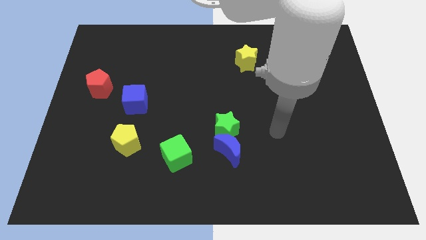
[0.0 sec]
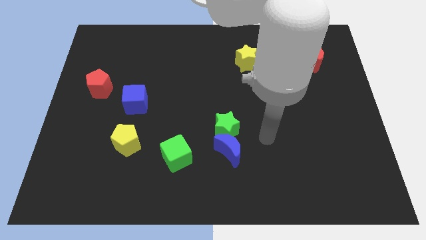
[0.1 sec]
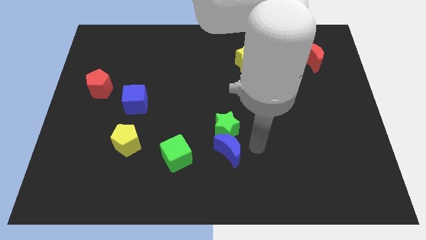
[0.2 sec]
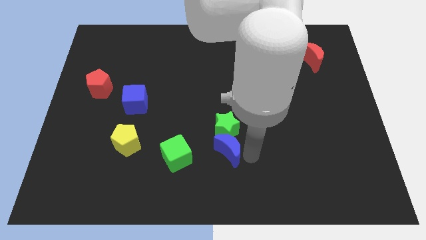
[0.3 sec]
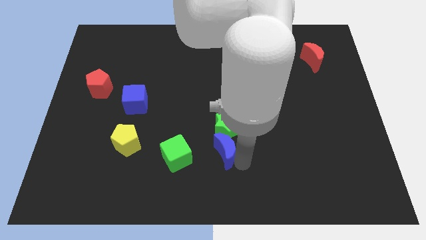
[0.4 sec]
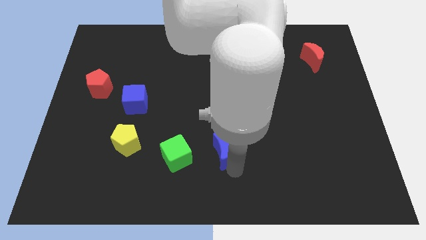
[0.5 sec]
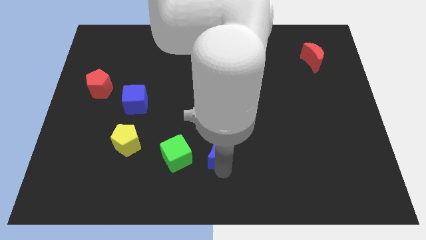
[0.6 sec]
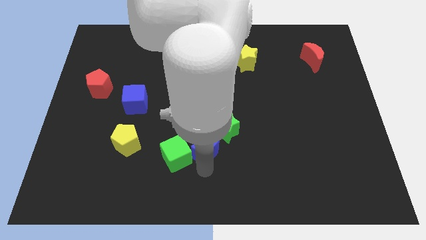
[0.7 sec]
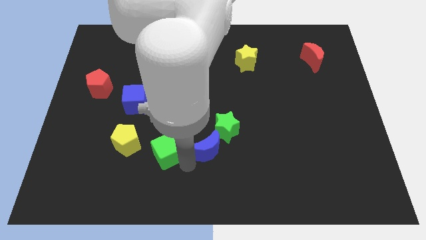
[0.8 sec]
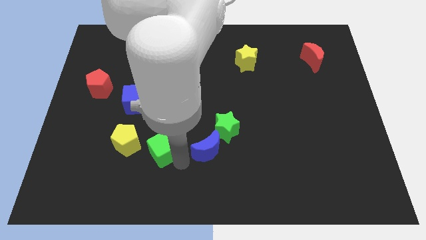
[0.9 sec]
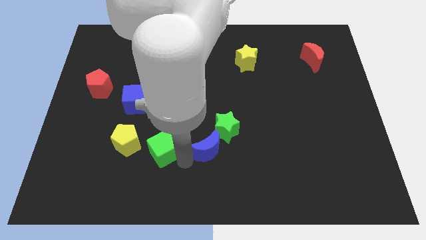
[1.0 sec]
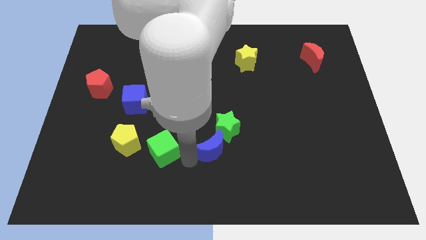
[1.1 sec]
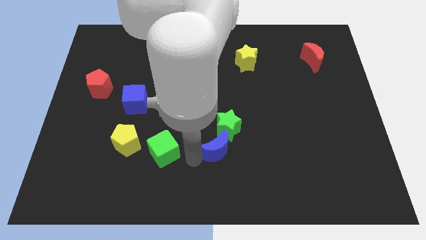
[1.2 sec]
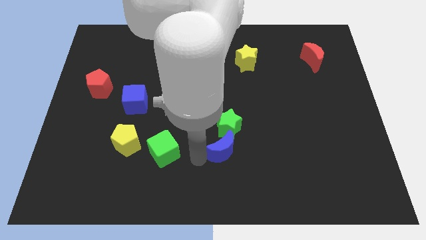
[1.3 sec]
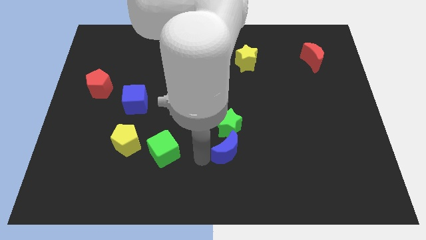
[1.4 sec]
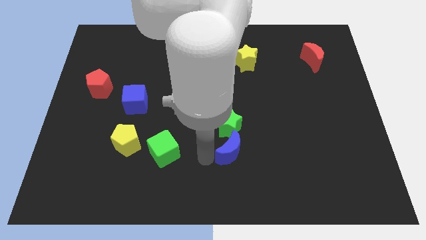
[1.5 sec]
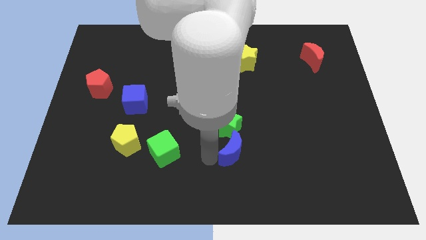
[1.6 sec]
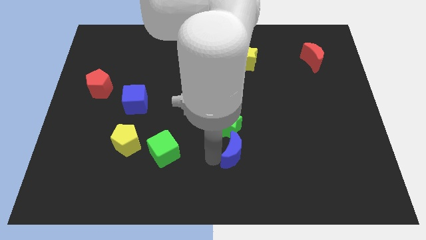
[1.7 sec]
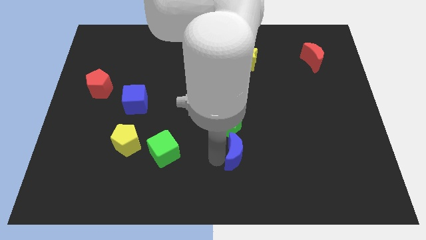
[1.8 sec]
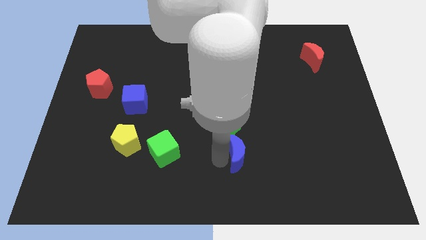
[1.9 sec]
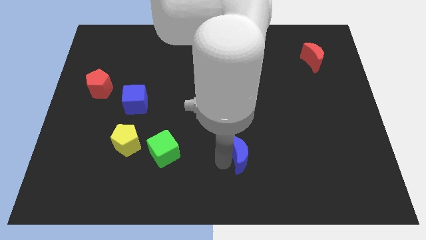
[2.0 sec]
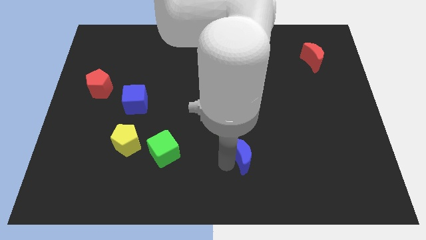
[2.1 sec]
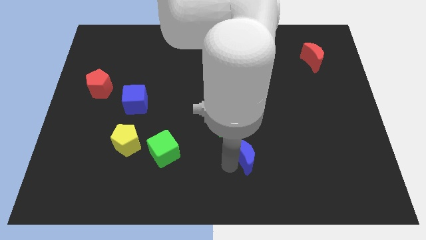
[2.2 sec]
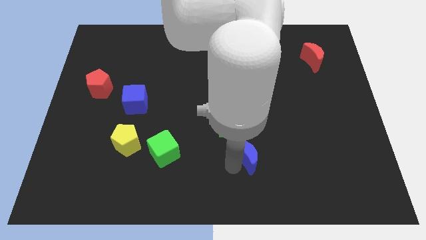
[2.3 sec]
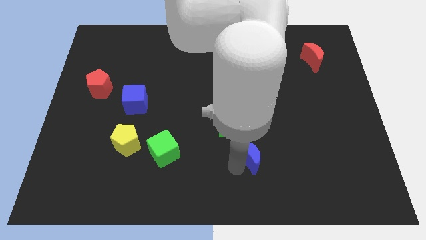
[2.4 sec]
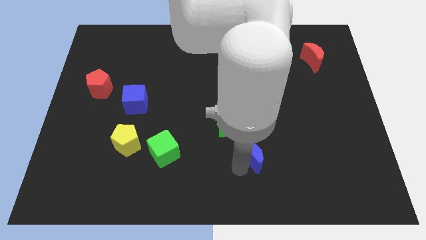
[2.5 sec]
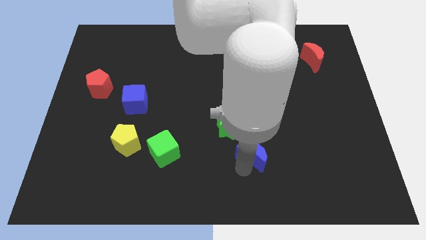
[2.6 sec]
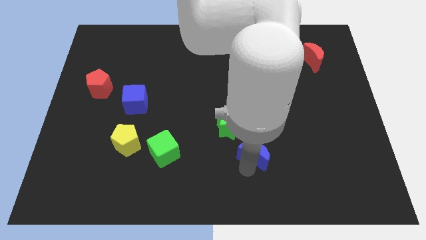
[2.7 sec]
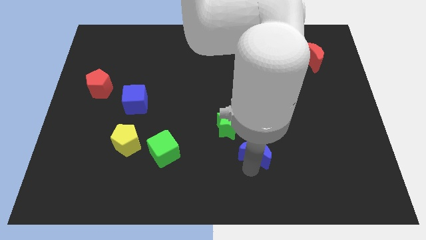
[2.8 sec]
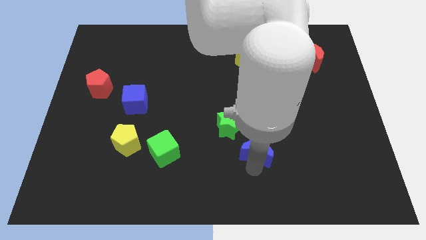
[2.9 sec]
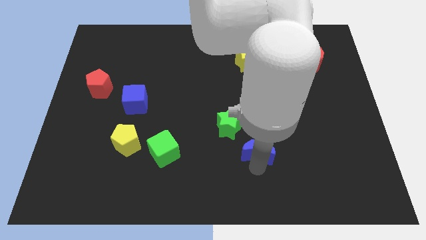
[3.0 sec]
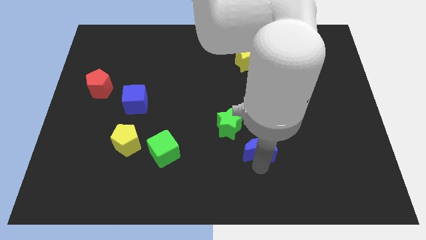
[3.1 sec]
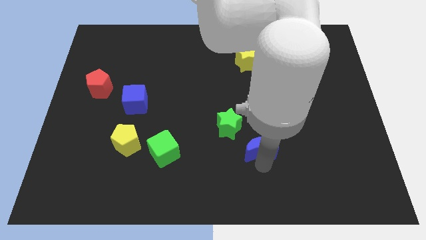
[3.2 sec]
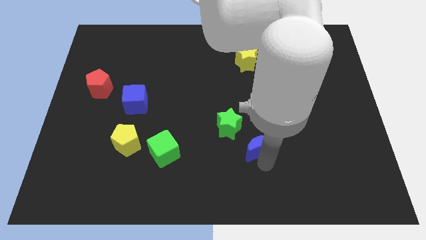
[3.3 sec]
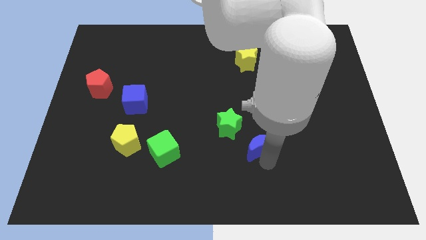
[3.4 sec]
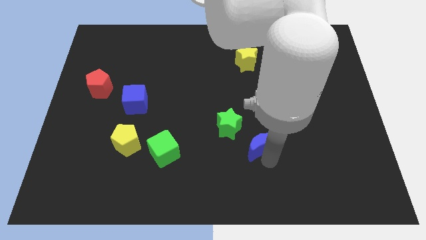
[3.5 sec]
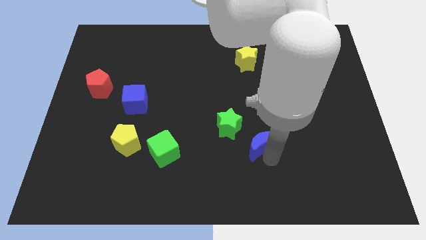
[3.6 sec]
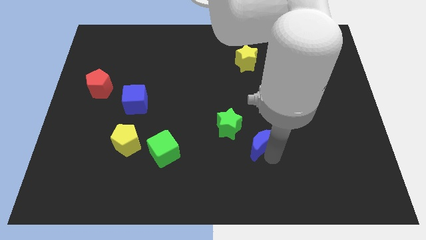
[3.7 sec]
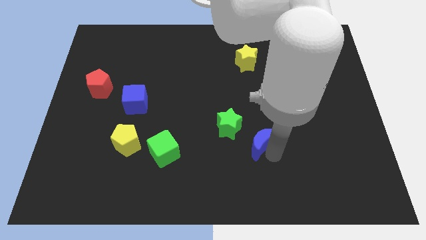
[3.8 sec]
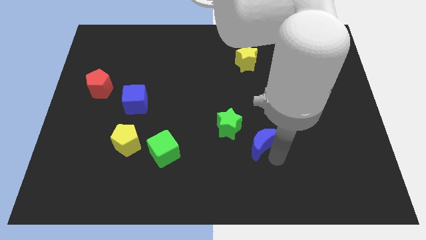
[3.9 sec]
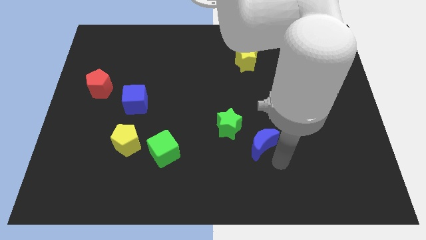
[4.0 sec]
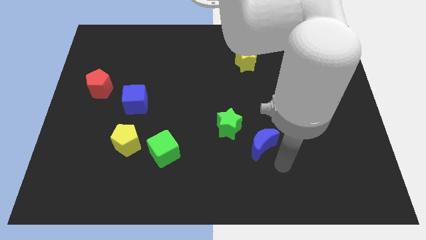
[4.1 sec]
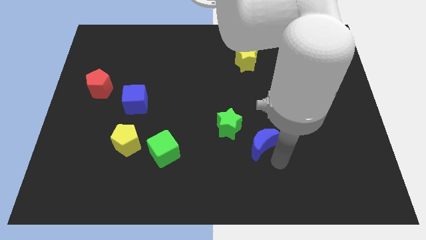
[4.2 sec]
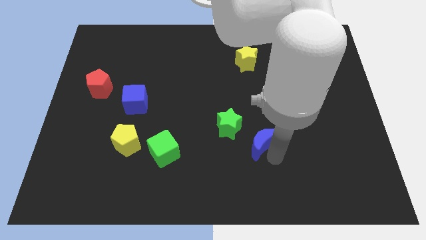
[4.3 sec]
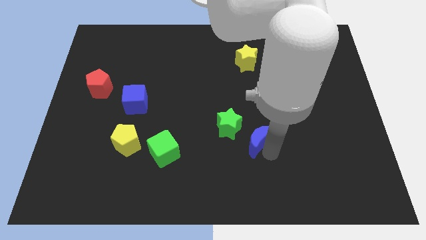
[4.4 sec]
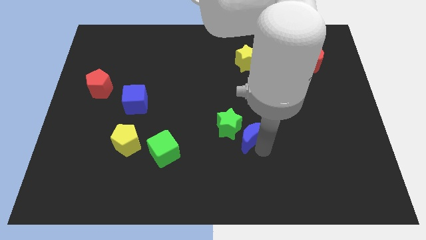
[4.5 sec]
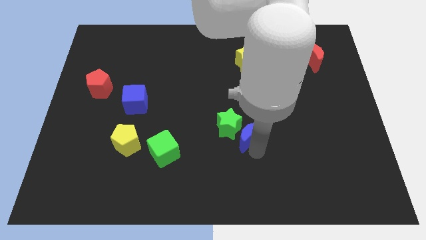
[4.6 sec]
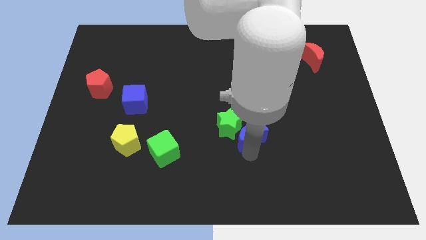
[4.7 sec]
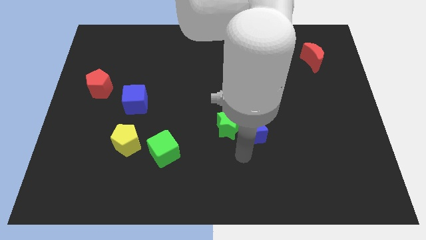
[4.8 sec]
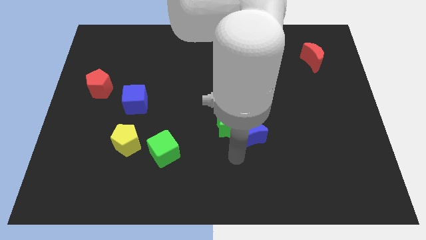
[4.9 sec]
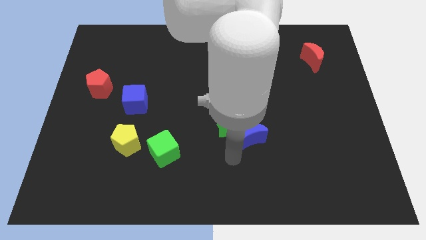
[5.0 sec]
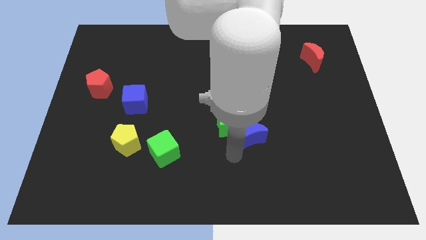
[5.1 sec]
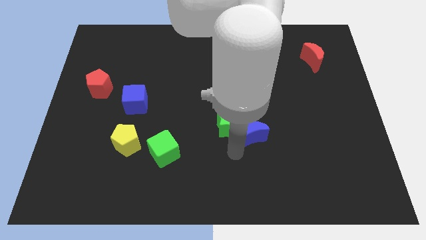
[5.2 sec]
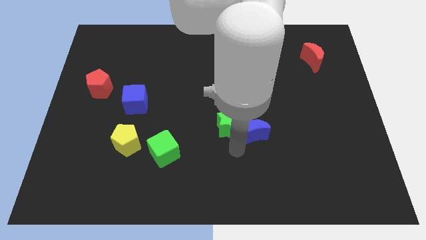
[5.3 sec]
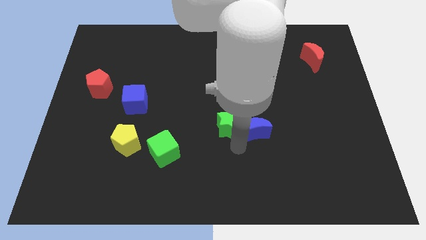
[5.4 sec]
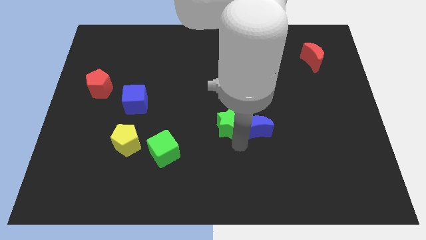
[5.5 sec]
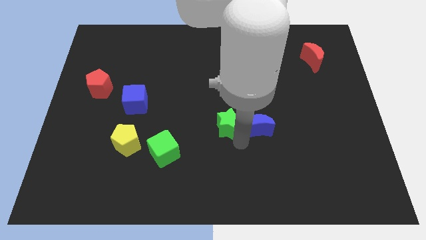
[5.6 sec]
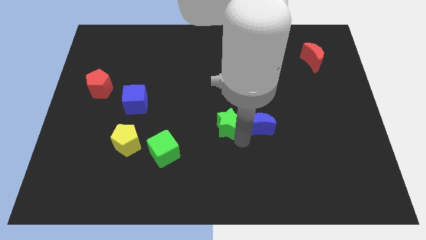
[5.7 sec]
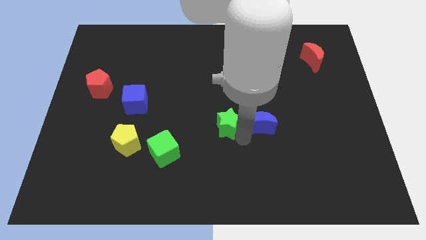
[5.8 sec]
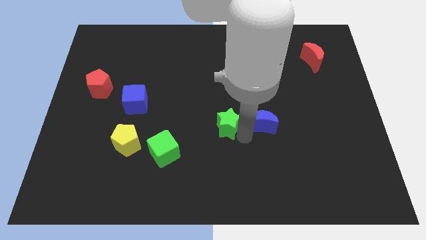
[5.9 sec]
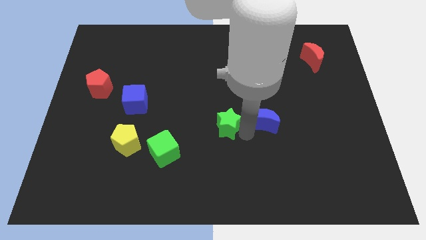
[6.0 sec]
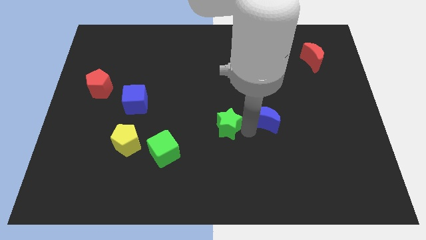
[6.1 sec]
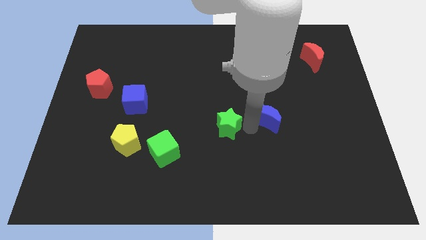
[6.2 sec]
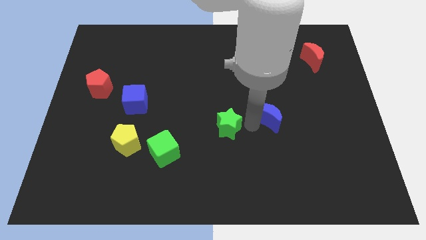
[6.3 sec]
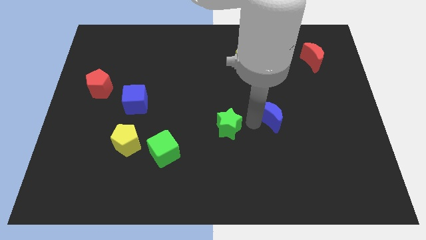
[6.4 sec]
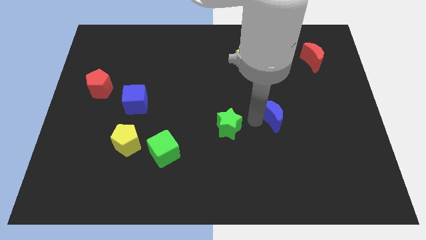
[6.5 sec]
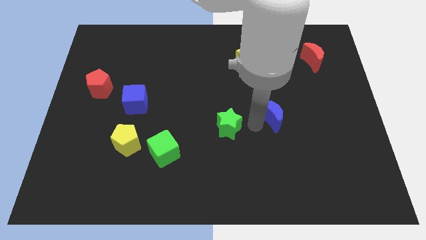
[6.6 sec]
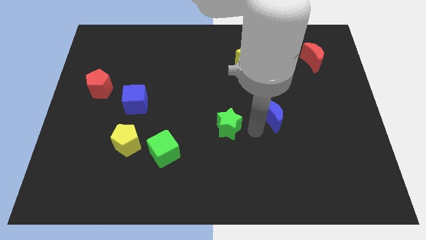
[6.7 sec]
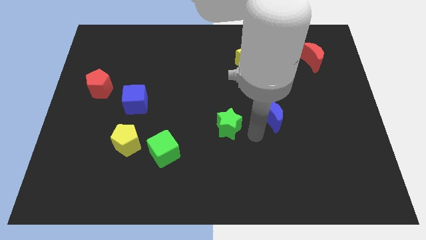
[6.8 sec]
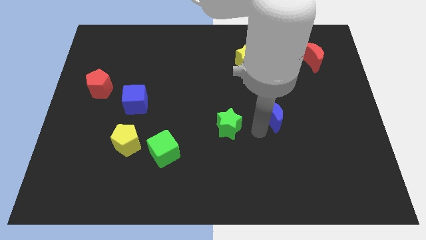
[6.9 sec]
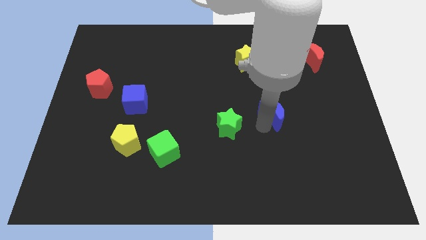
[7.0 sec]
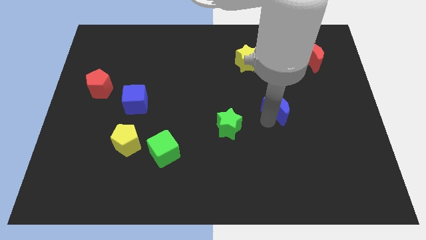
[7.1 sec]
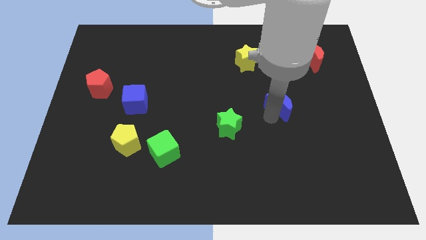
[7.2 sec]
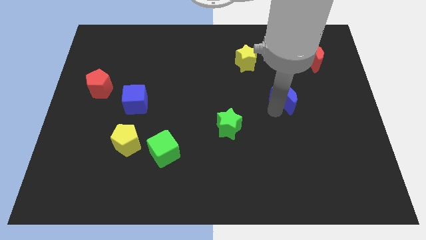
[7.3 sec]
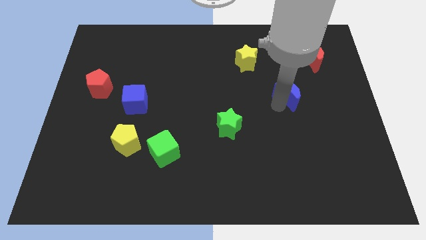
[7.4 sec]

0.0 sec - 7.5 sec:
move the blue moon upwards and right diagonally

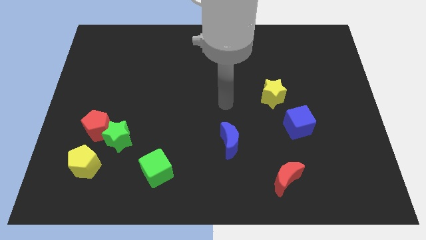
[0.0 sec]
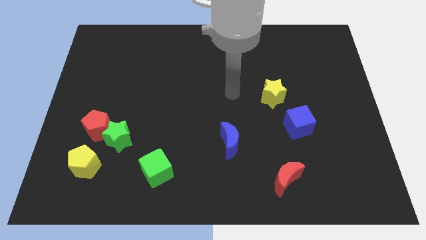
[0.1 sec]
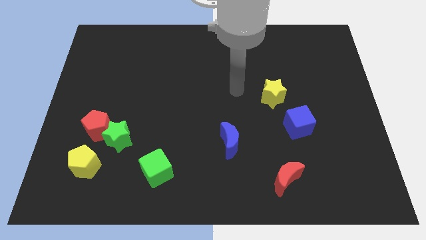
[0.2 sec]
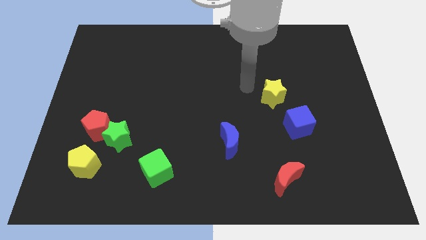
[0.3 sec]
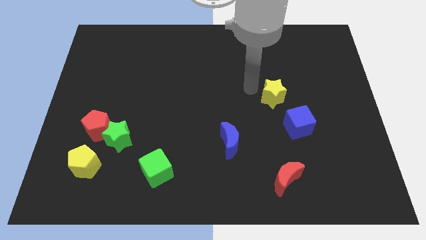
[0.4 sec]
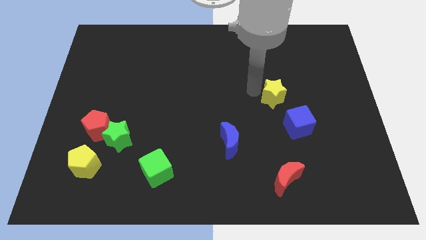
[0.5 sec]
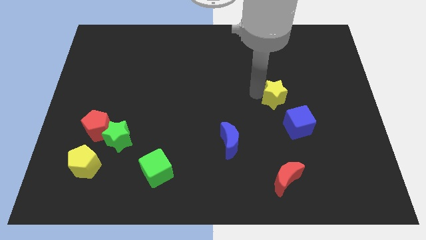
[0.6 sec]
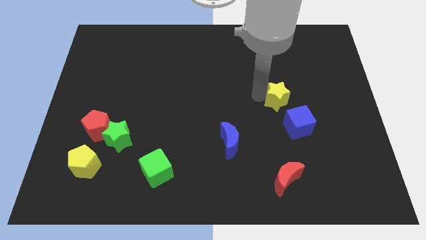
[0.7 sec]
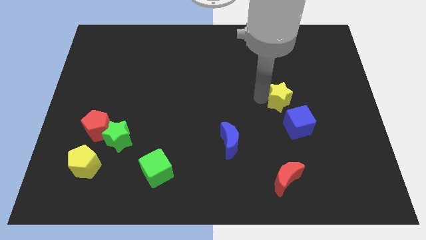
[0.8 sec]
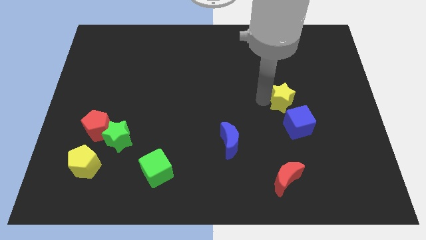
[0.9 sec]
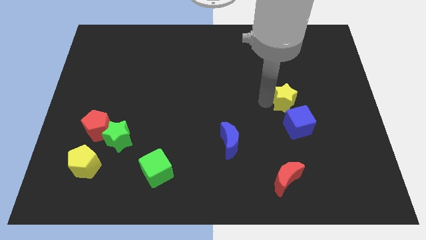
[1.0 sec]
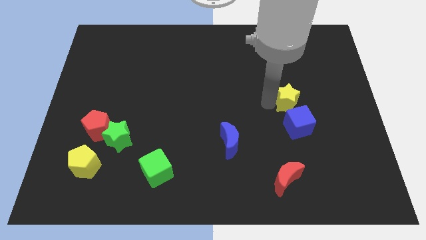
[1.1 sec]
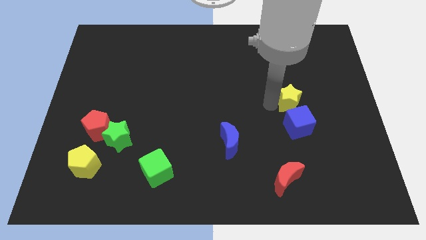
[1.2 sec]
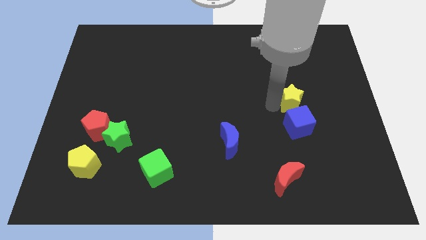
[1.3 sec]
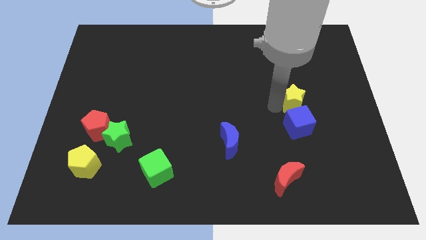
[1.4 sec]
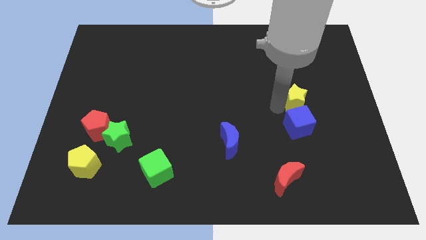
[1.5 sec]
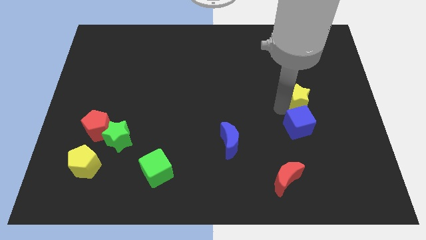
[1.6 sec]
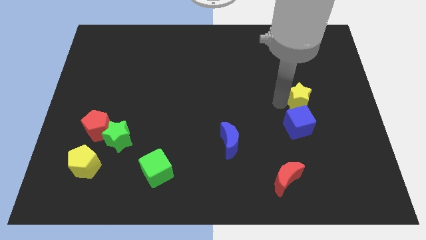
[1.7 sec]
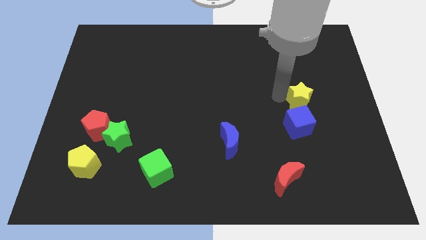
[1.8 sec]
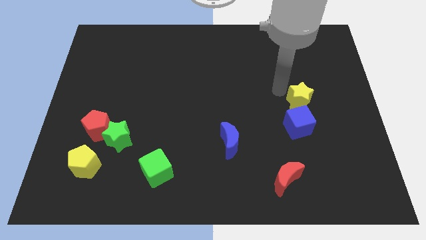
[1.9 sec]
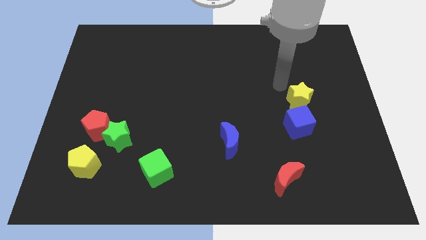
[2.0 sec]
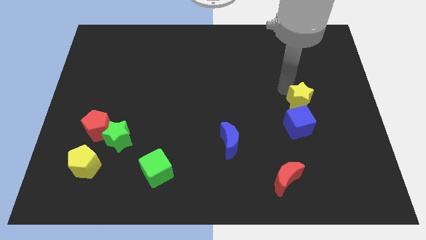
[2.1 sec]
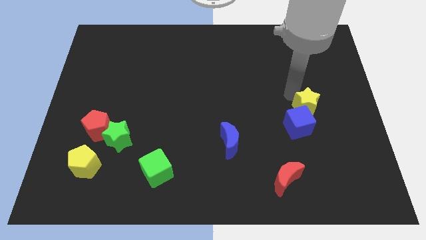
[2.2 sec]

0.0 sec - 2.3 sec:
move the yellow star a little bit diagonally downwards and to the right
